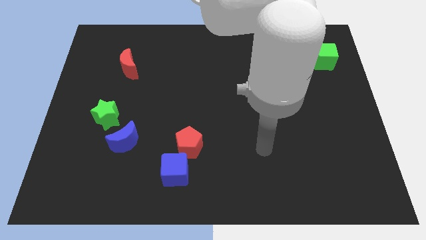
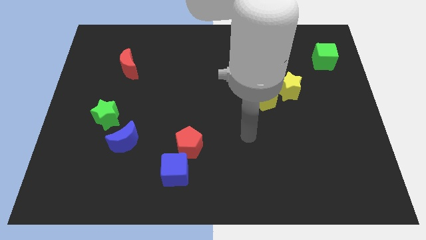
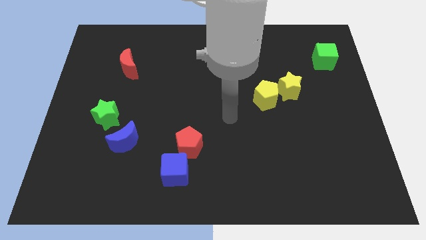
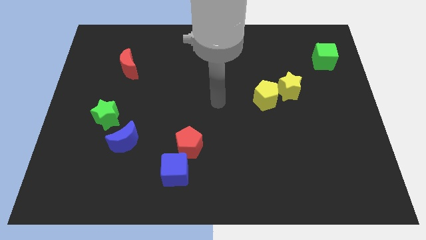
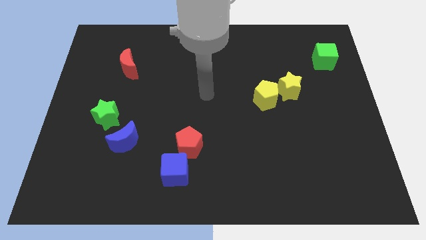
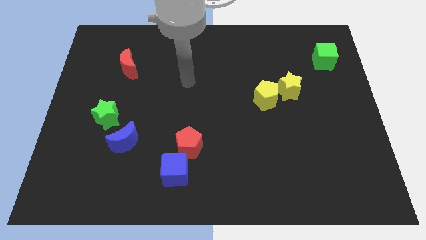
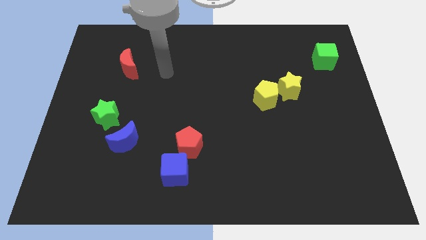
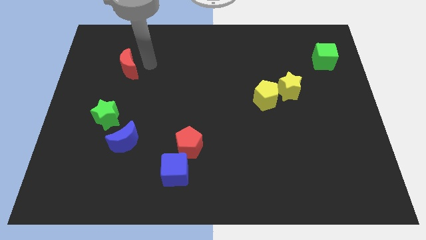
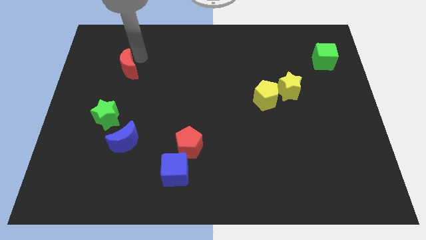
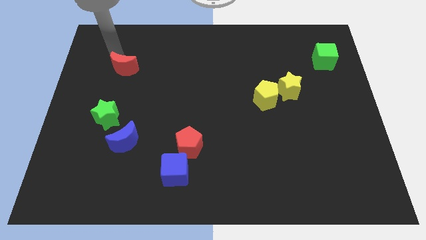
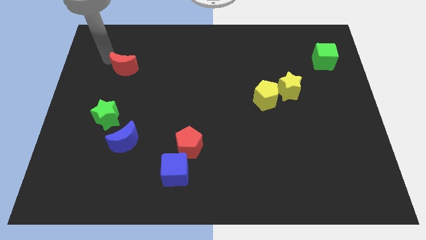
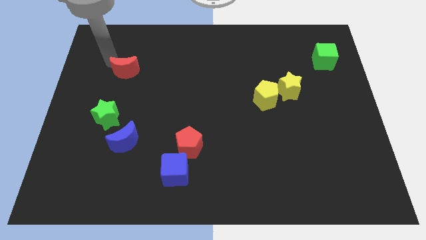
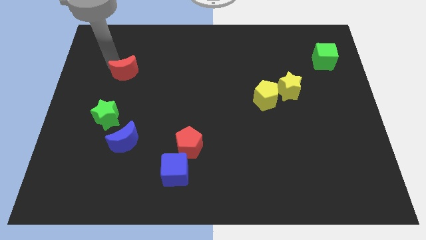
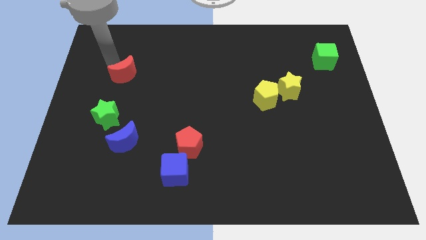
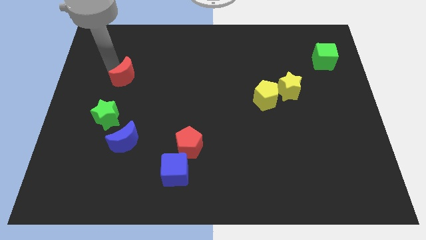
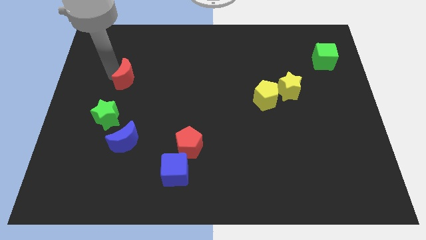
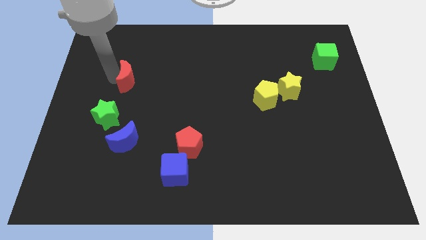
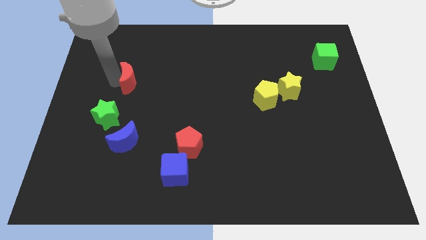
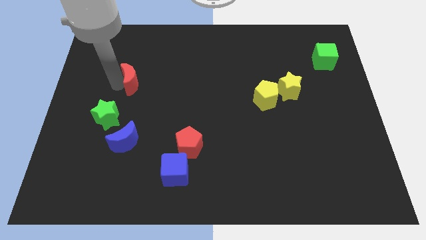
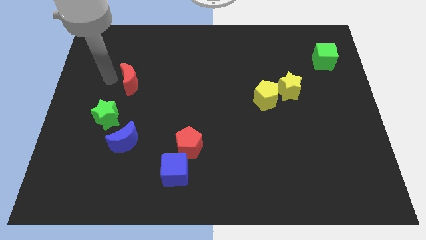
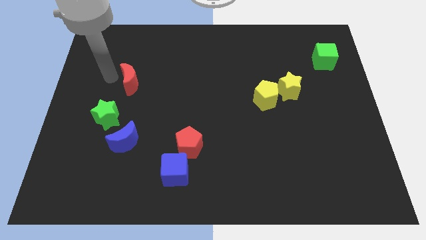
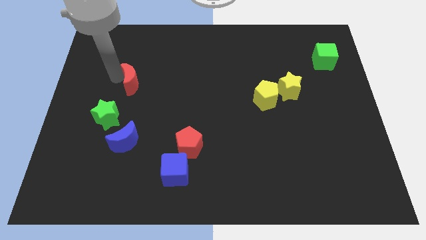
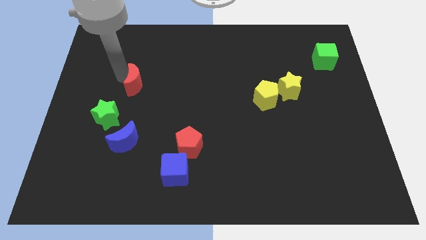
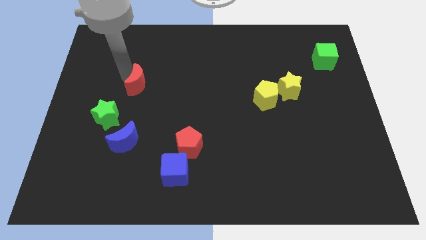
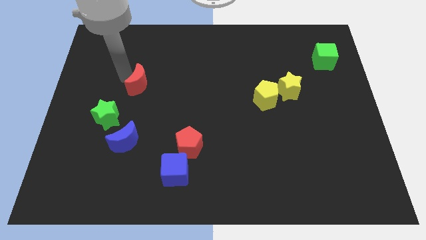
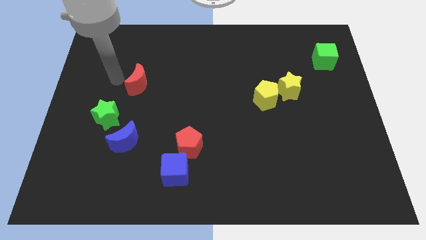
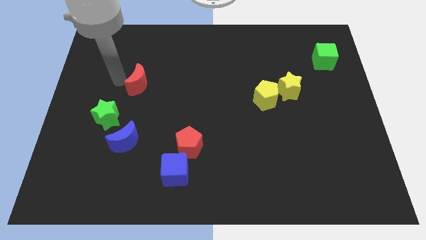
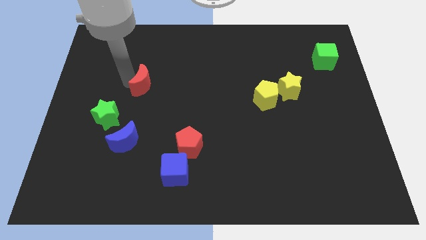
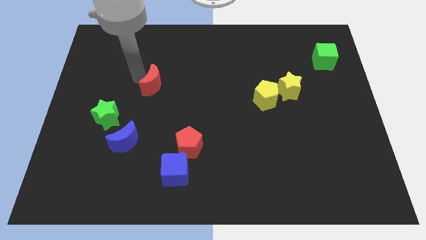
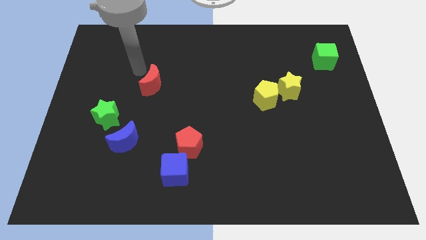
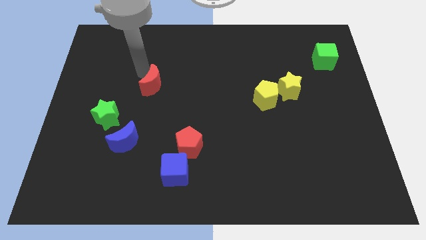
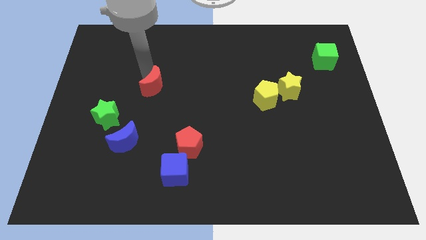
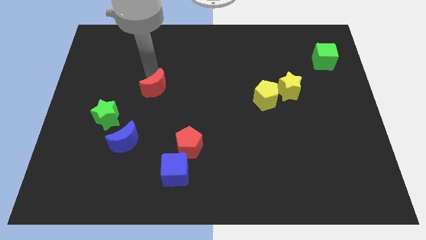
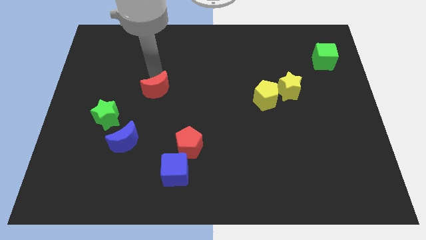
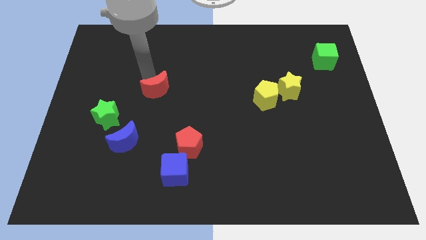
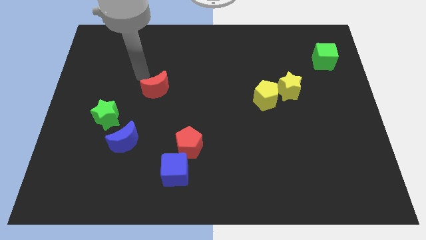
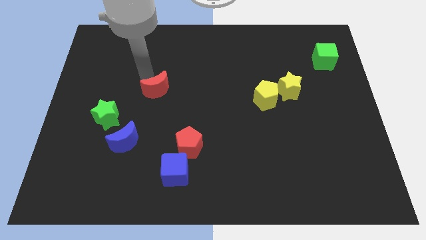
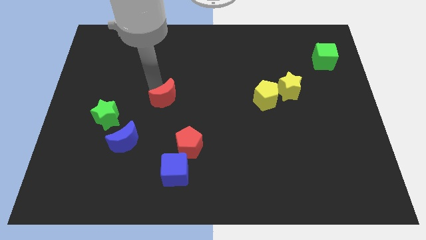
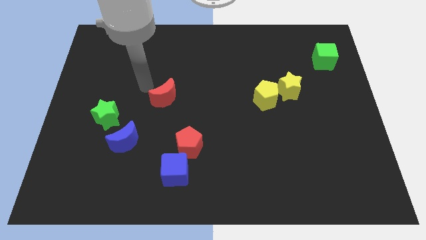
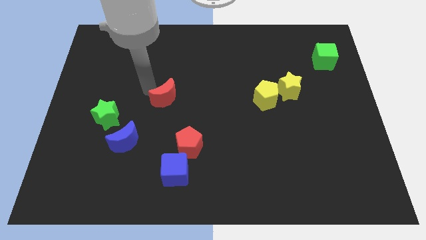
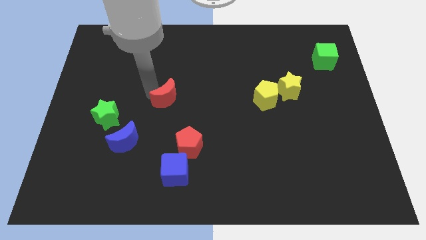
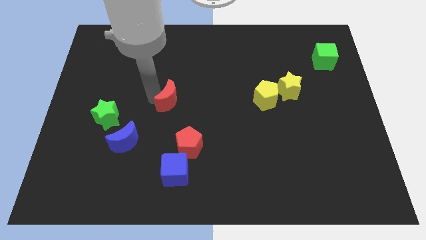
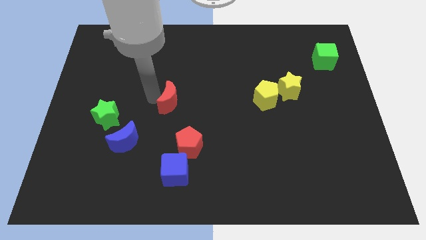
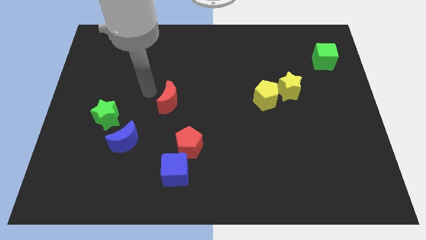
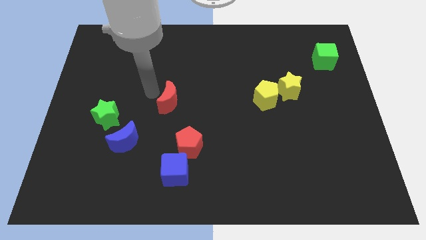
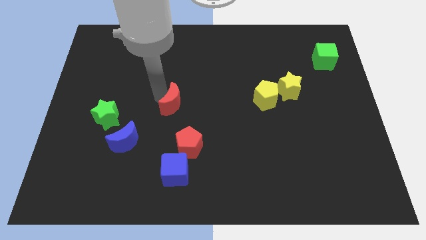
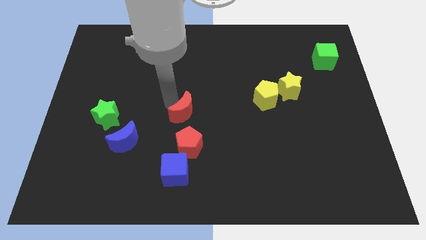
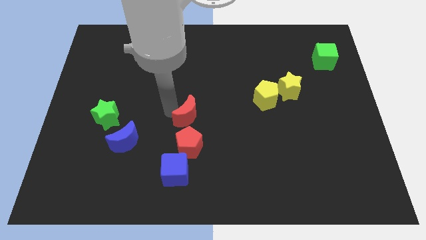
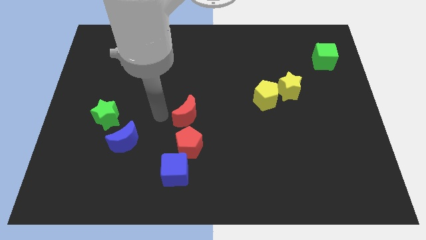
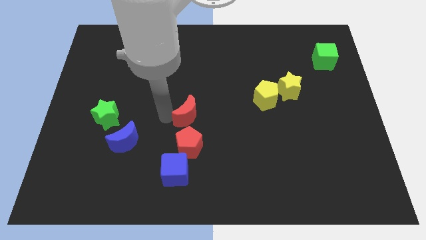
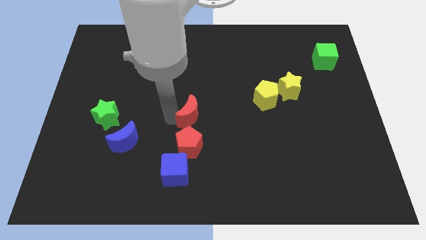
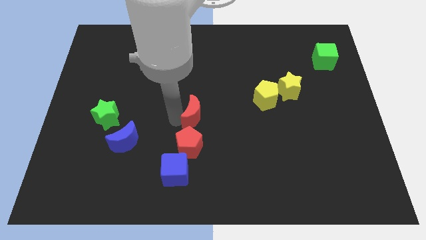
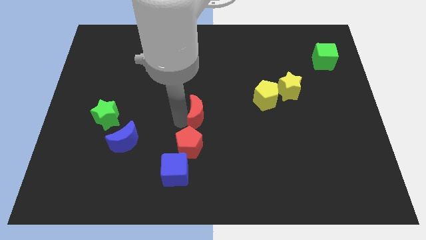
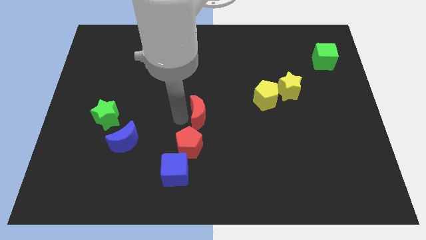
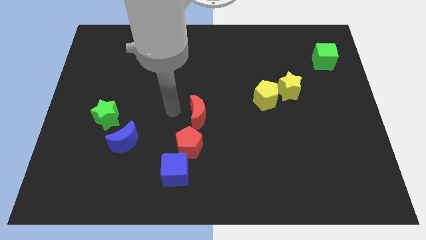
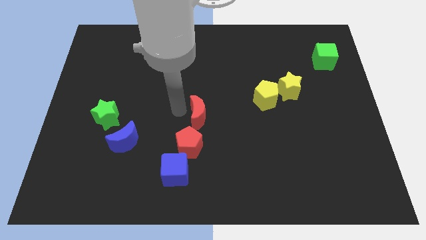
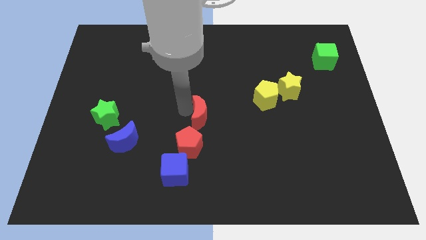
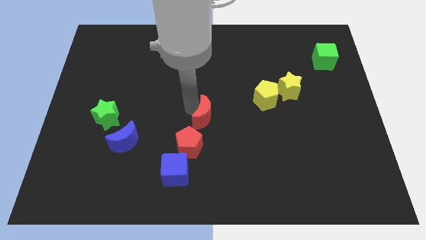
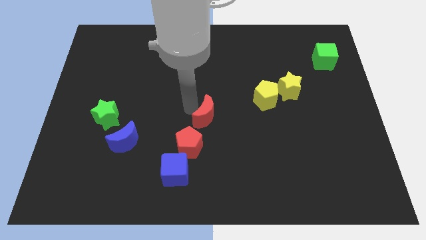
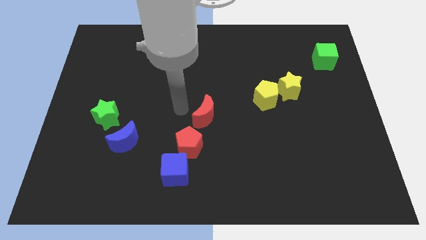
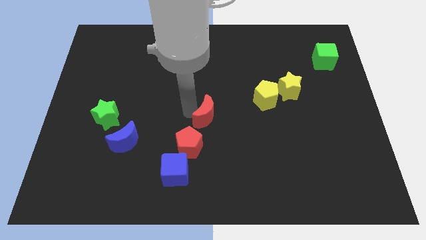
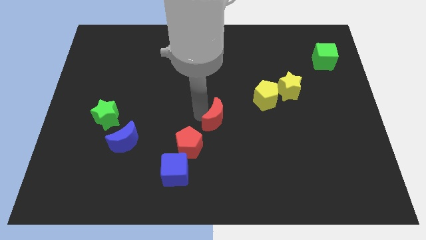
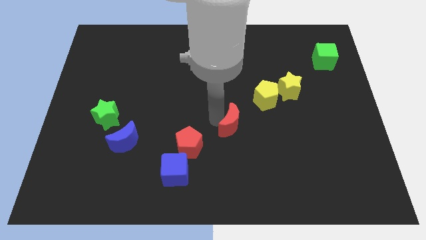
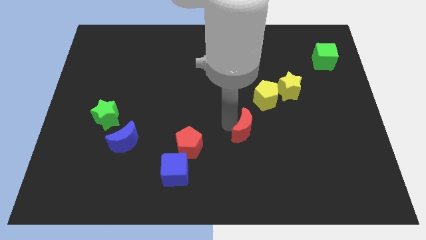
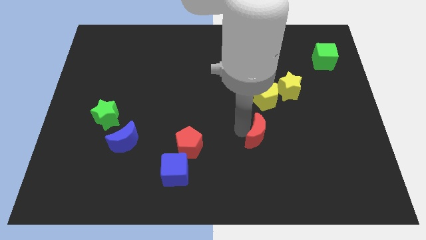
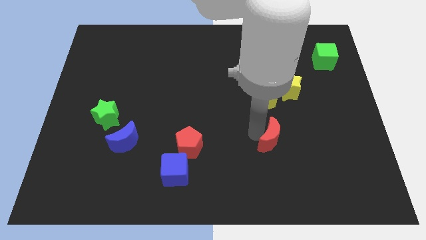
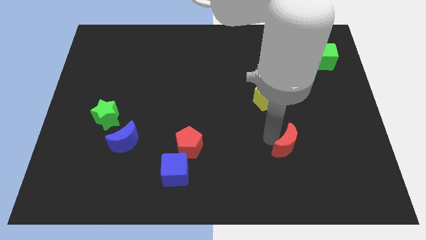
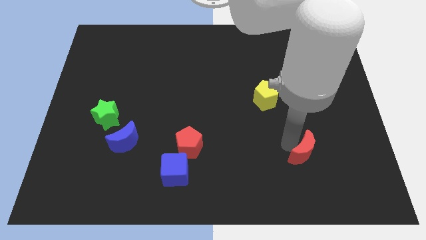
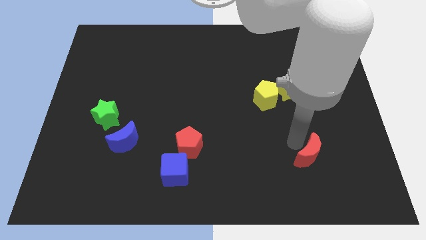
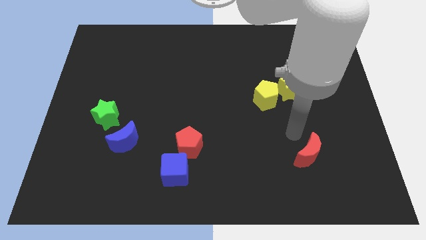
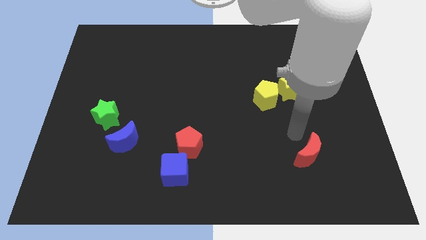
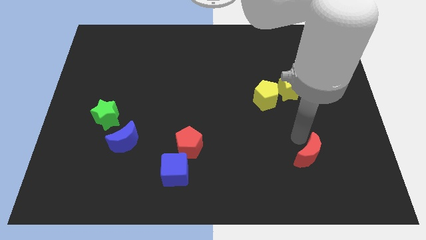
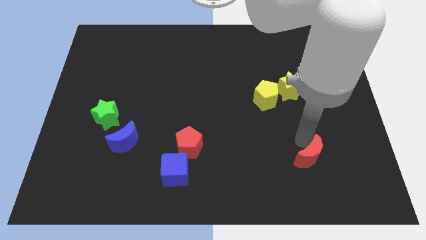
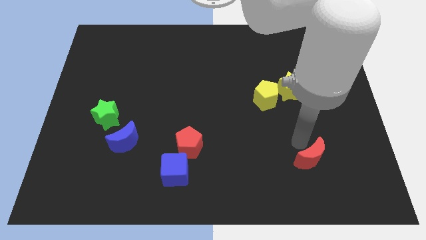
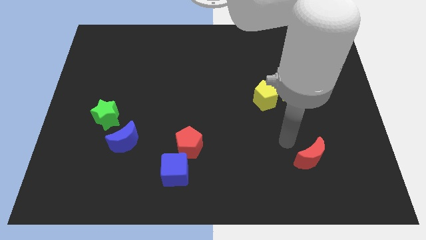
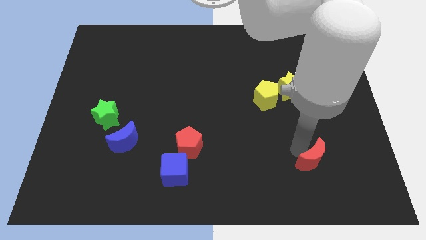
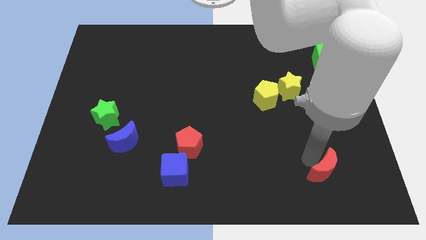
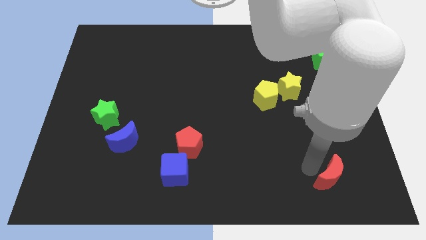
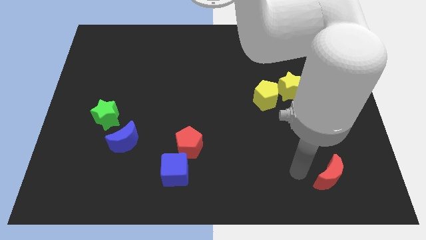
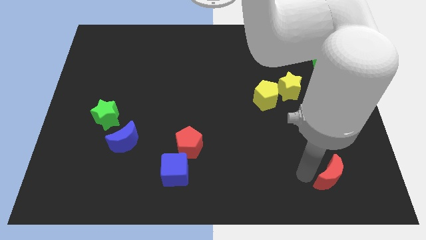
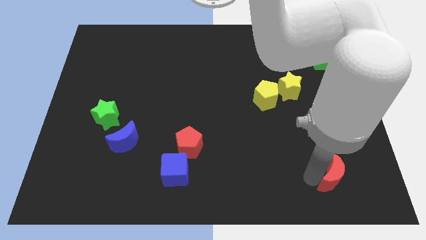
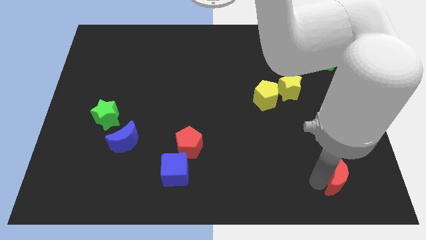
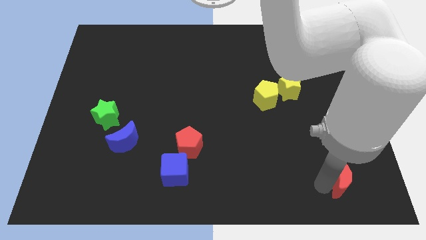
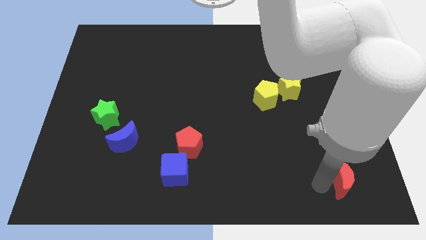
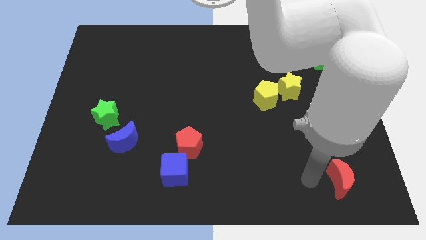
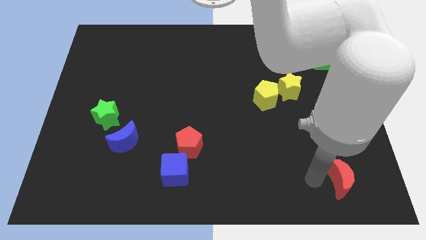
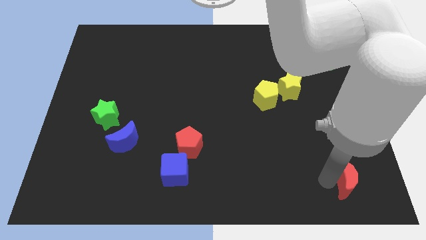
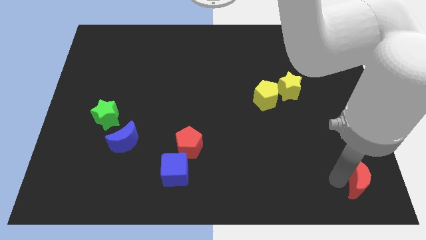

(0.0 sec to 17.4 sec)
push the red moon to the bottom right of the board
